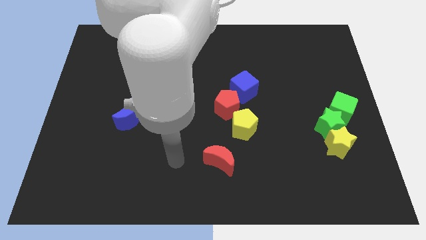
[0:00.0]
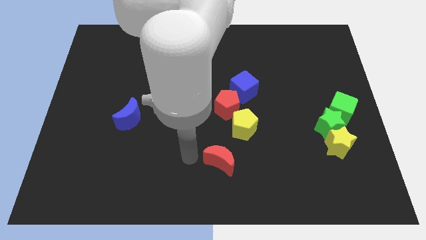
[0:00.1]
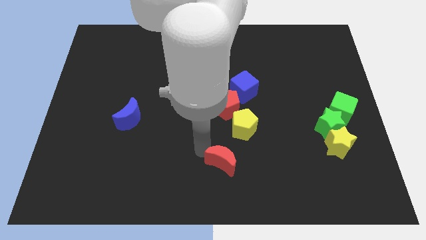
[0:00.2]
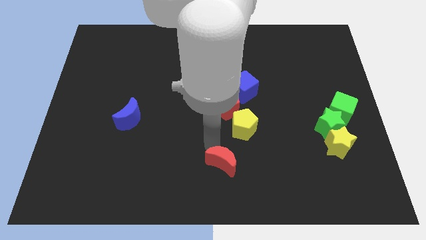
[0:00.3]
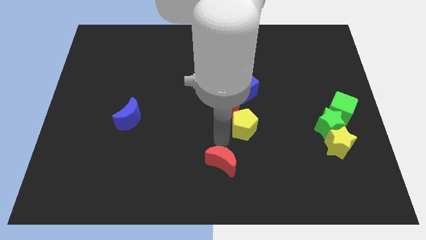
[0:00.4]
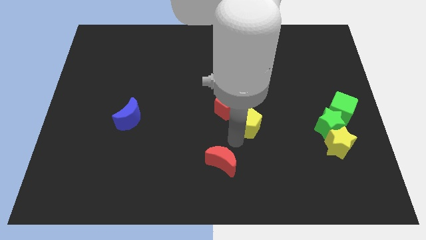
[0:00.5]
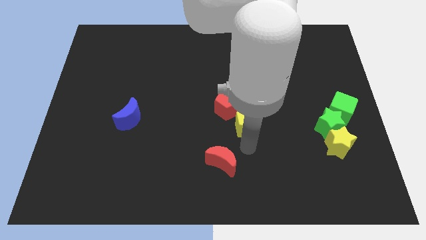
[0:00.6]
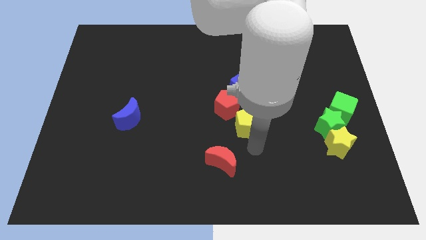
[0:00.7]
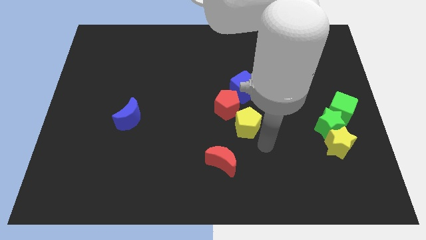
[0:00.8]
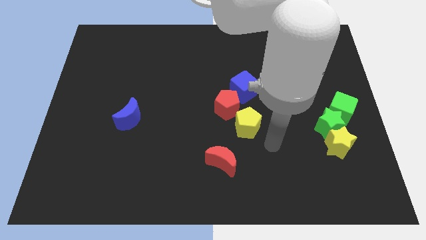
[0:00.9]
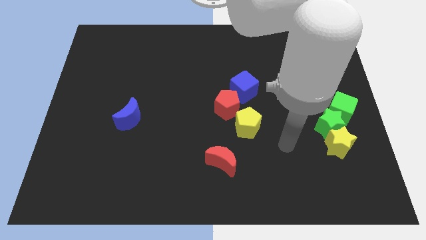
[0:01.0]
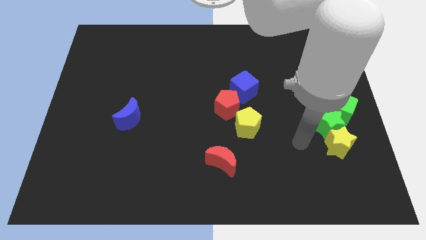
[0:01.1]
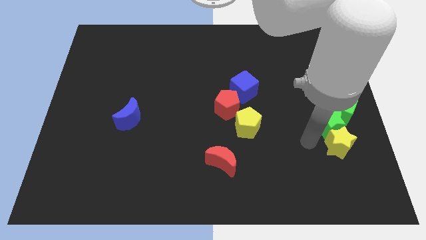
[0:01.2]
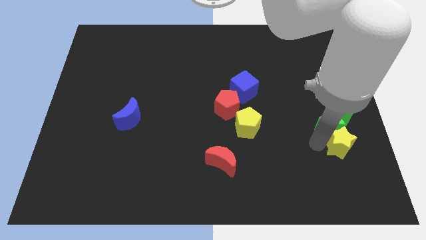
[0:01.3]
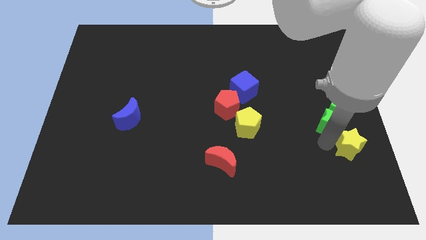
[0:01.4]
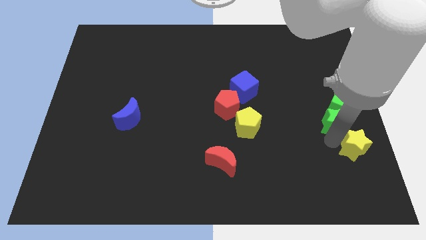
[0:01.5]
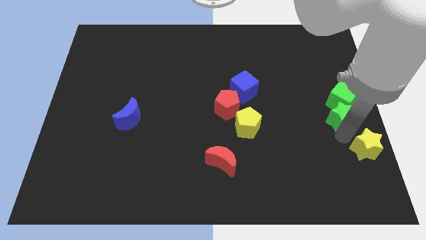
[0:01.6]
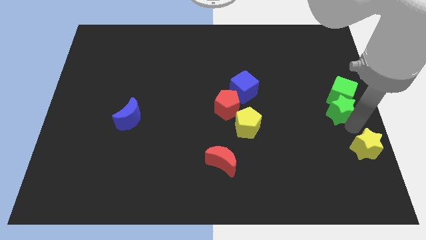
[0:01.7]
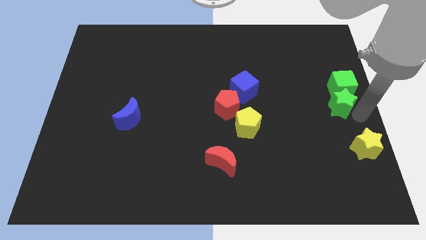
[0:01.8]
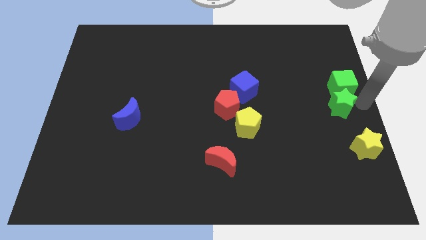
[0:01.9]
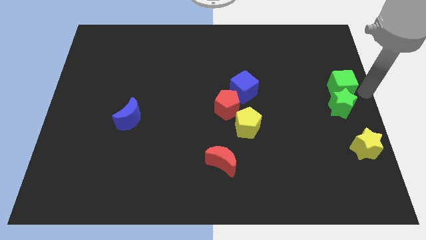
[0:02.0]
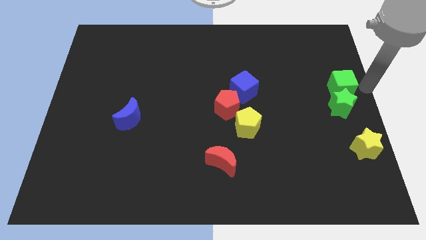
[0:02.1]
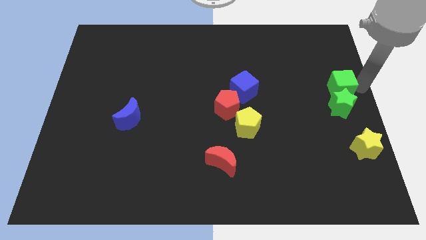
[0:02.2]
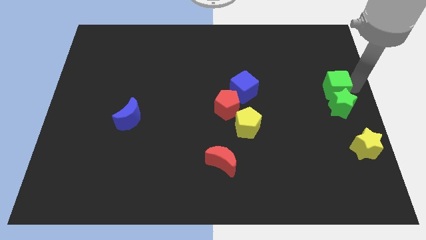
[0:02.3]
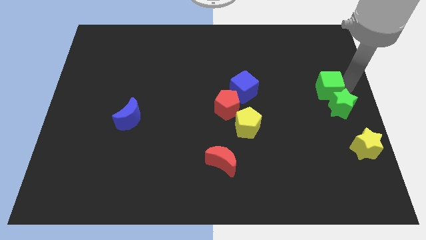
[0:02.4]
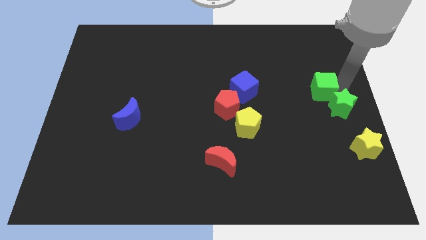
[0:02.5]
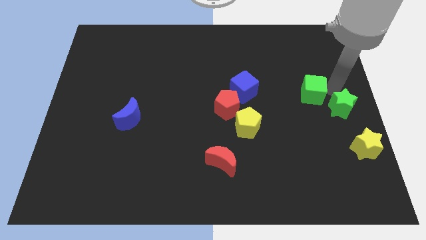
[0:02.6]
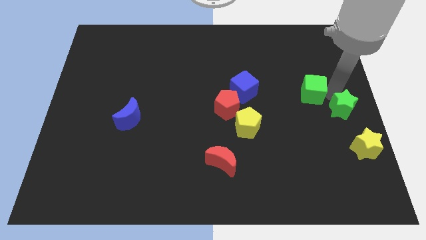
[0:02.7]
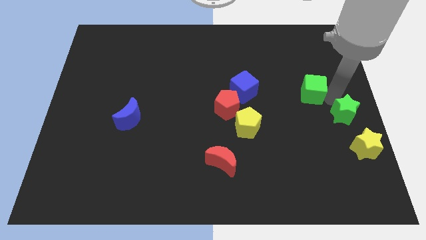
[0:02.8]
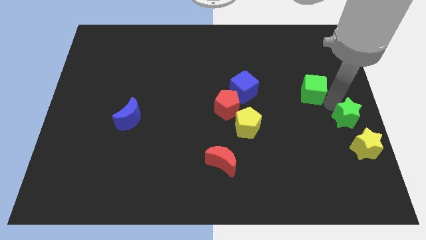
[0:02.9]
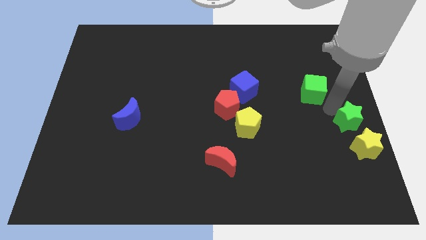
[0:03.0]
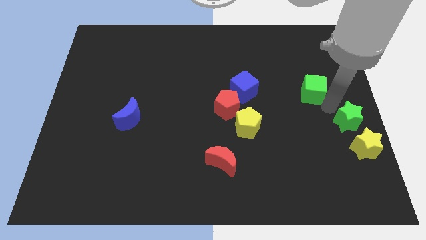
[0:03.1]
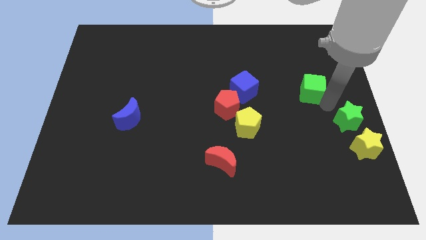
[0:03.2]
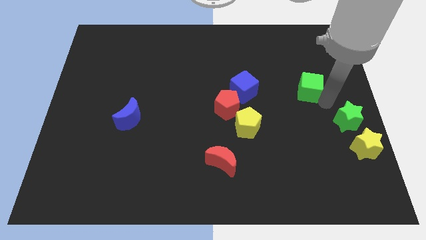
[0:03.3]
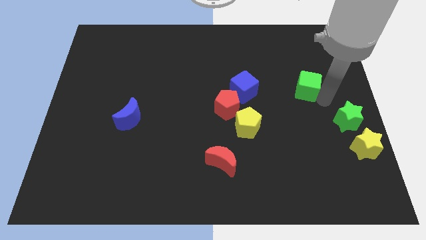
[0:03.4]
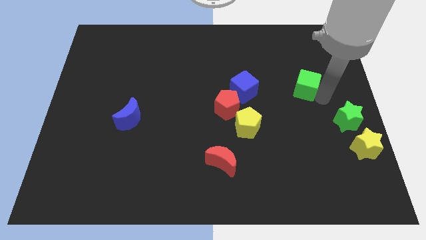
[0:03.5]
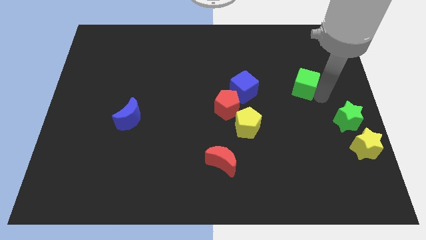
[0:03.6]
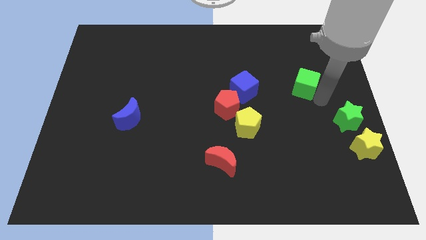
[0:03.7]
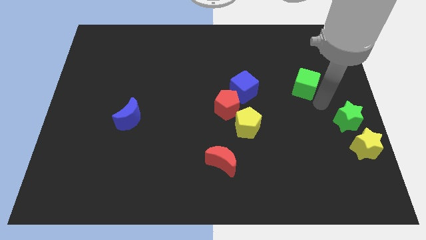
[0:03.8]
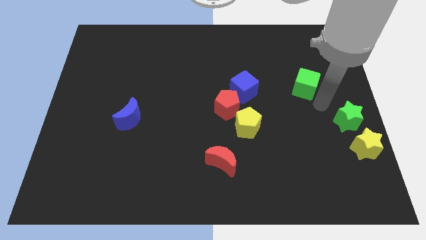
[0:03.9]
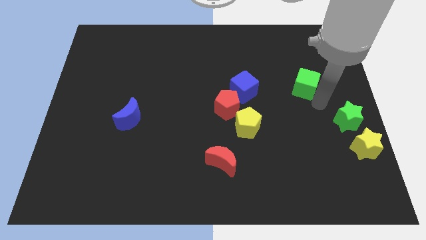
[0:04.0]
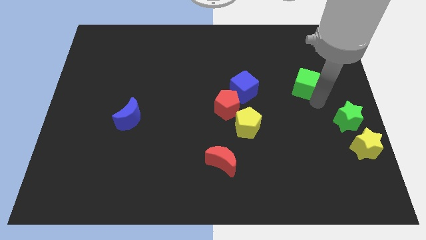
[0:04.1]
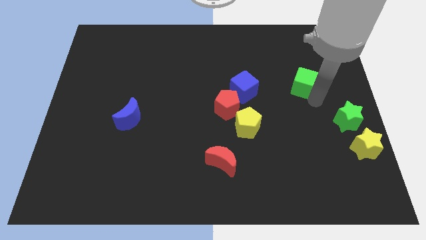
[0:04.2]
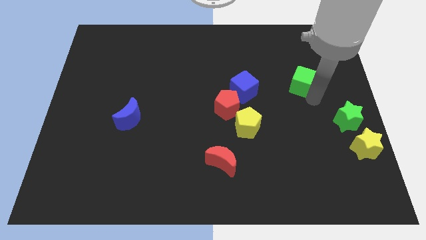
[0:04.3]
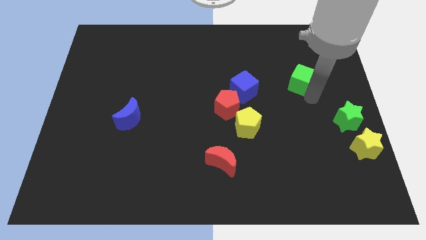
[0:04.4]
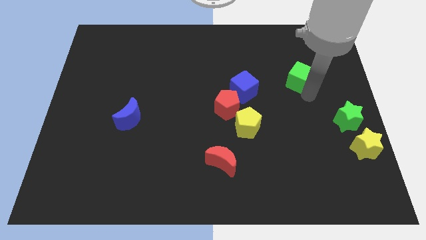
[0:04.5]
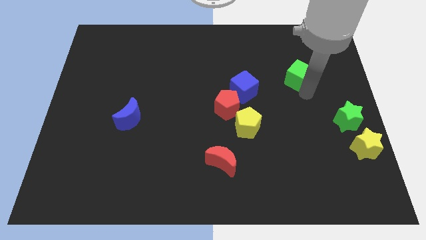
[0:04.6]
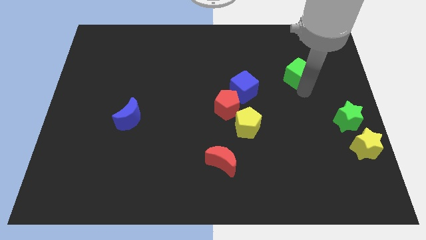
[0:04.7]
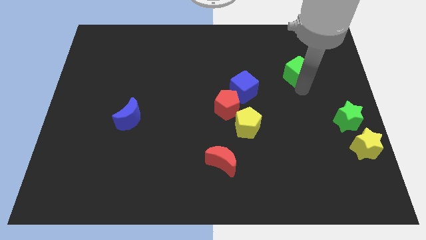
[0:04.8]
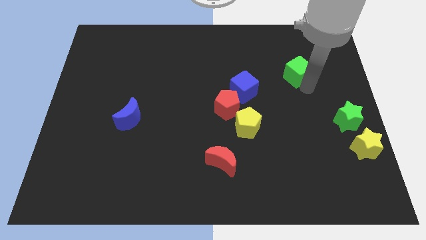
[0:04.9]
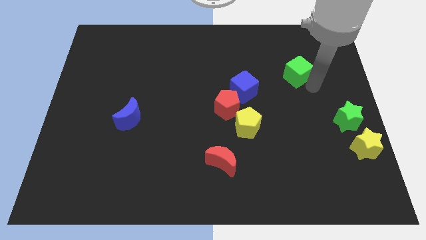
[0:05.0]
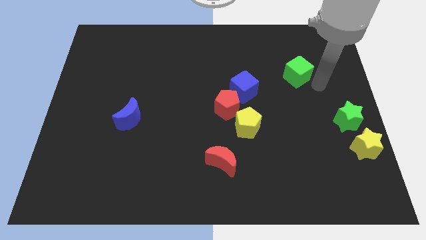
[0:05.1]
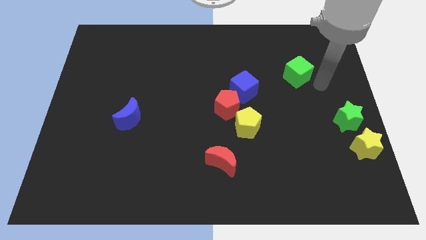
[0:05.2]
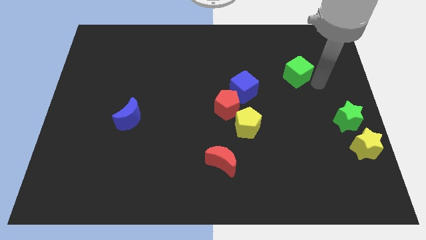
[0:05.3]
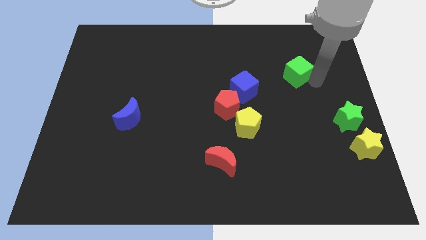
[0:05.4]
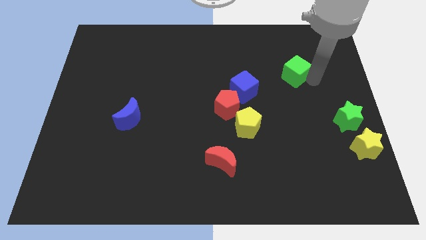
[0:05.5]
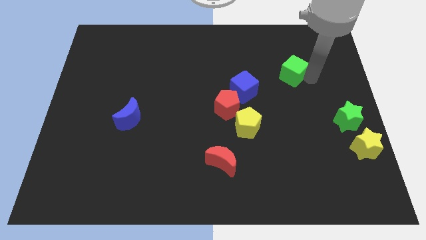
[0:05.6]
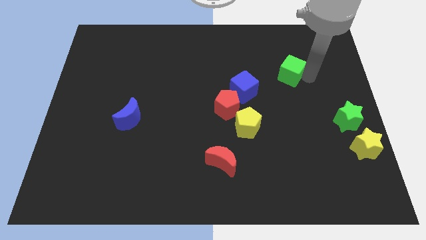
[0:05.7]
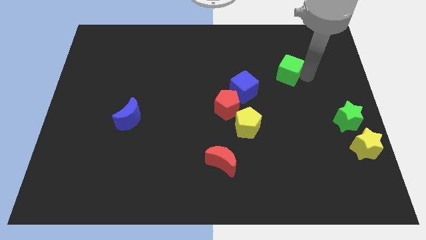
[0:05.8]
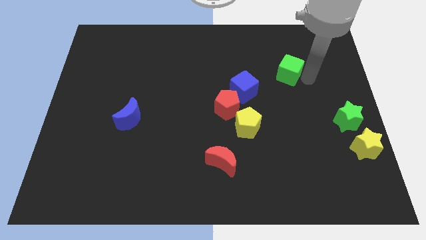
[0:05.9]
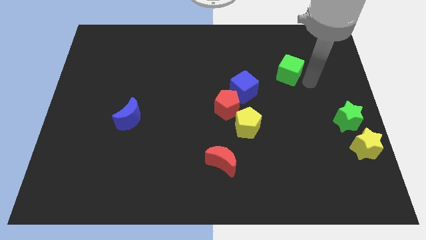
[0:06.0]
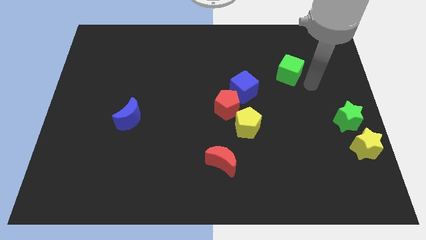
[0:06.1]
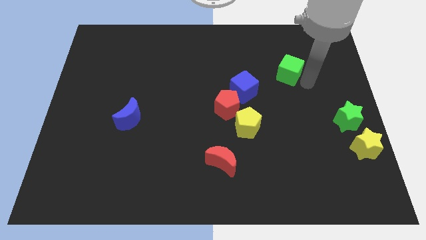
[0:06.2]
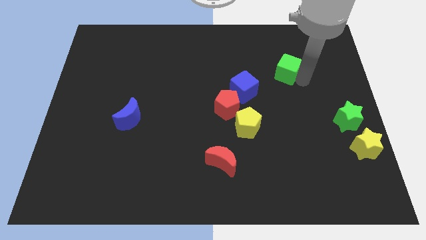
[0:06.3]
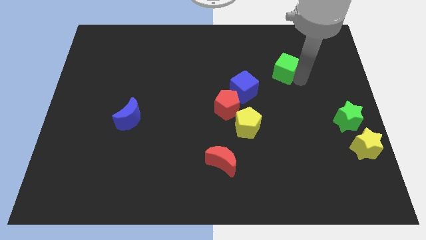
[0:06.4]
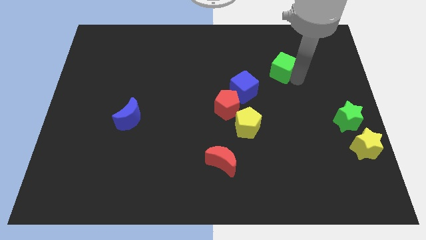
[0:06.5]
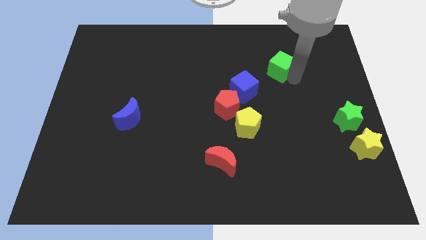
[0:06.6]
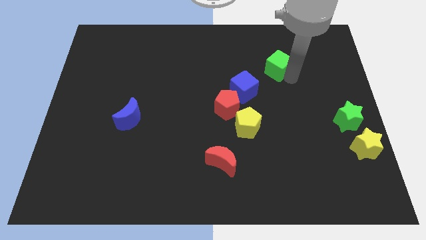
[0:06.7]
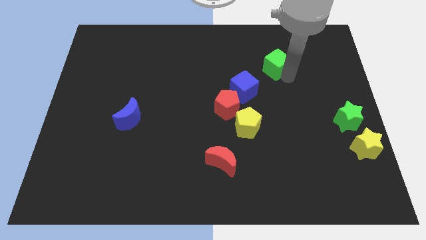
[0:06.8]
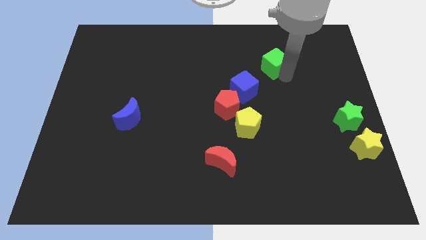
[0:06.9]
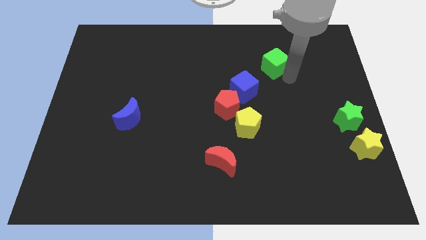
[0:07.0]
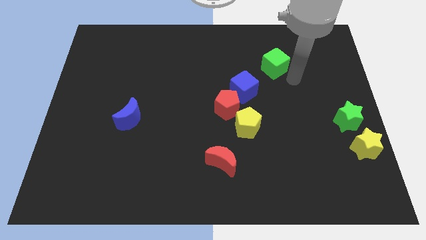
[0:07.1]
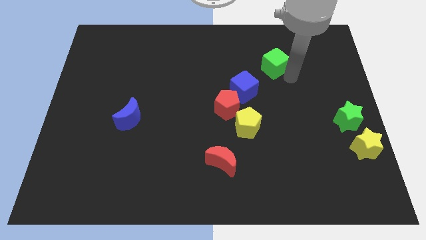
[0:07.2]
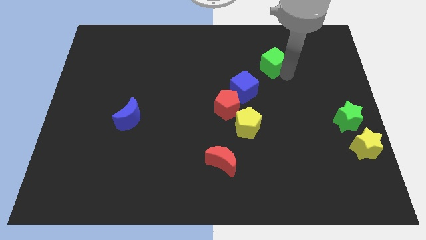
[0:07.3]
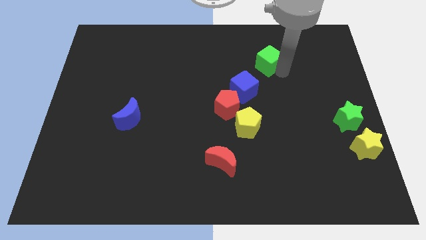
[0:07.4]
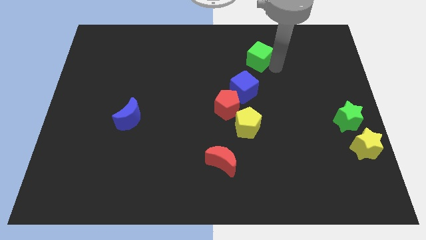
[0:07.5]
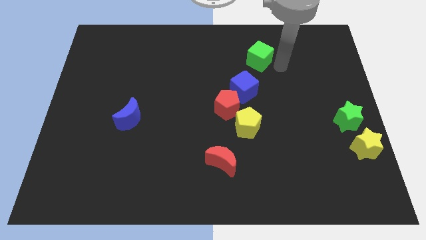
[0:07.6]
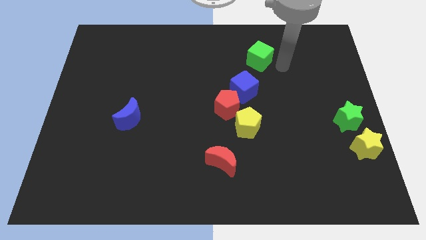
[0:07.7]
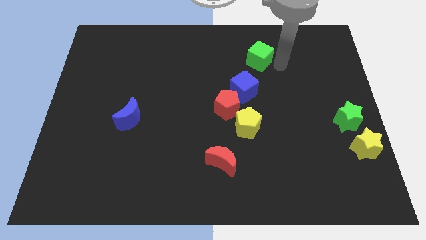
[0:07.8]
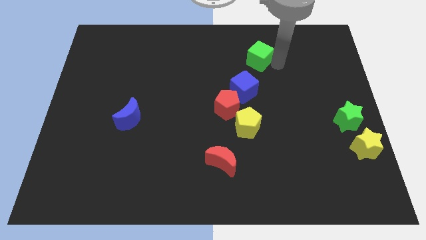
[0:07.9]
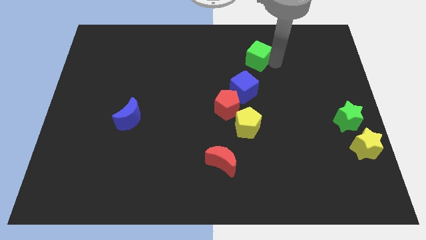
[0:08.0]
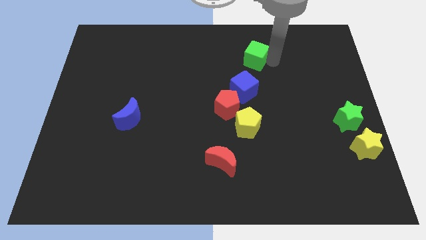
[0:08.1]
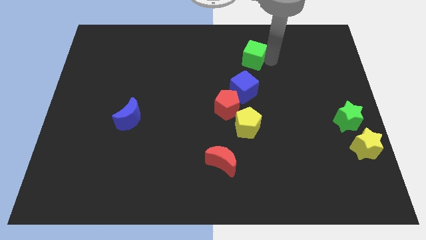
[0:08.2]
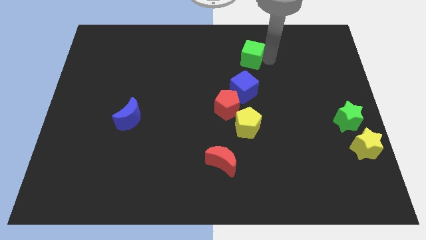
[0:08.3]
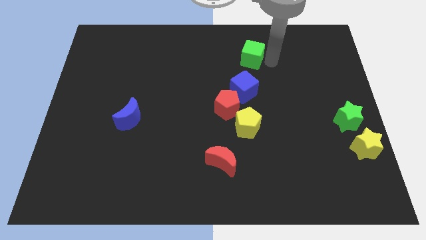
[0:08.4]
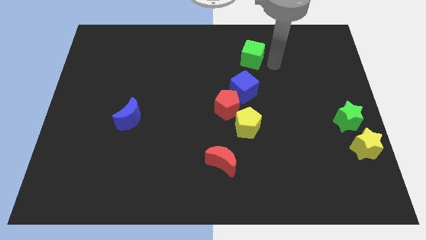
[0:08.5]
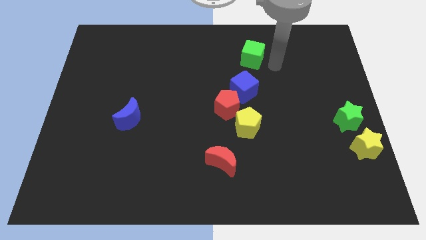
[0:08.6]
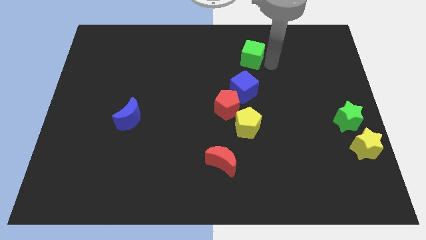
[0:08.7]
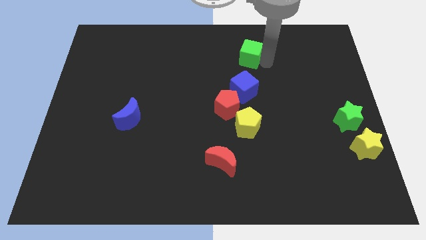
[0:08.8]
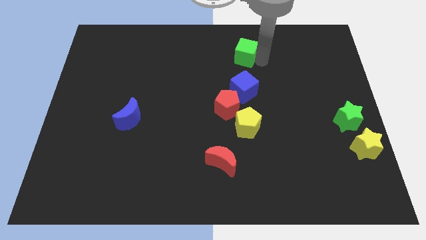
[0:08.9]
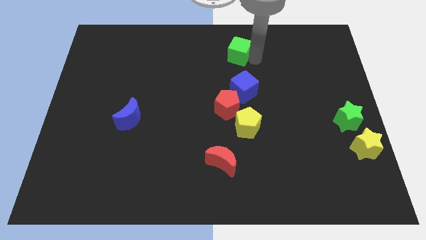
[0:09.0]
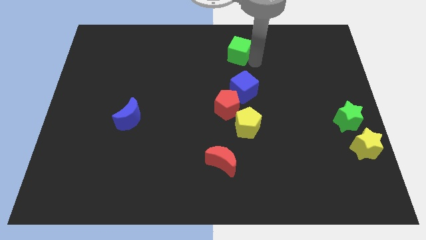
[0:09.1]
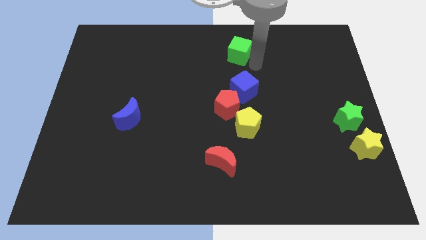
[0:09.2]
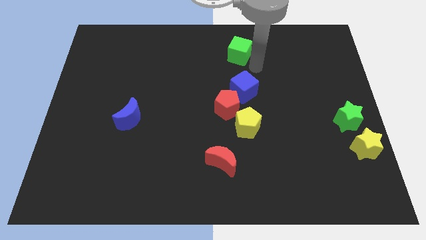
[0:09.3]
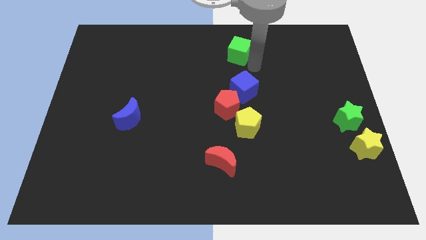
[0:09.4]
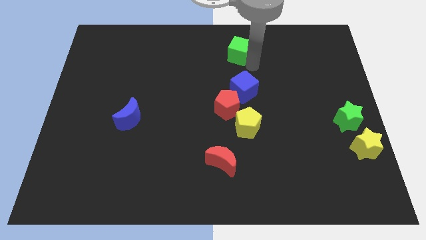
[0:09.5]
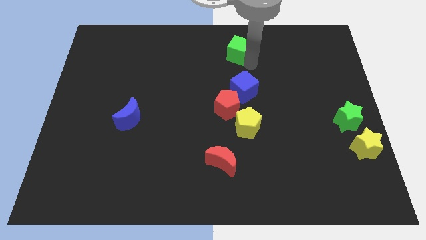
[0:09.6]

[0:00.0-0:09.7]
slide the green cube to the top side
